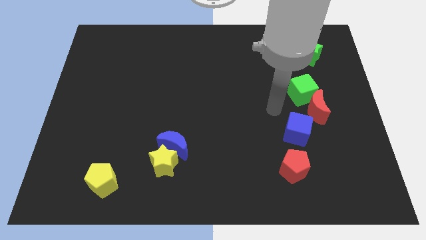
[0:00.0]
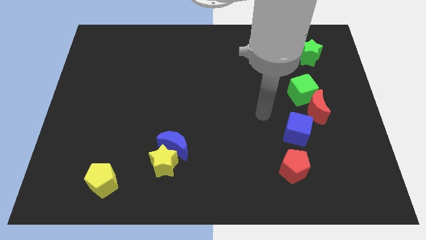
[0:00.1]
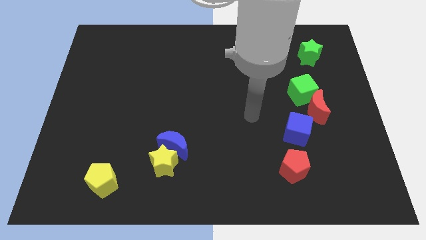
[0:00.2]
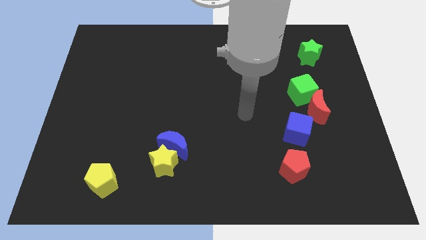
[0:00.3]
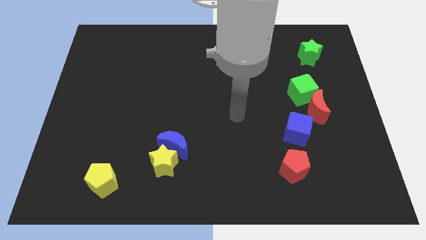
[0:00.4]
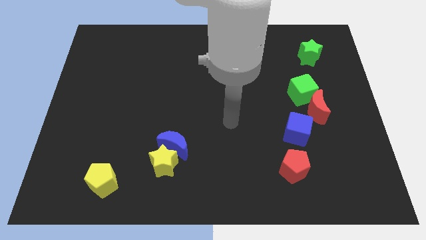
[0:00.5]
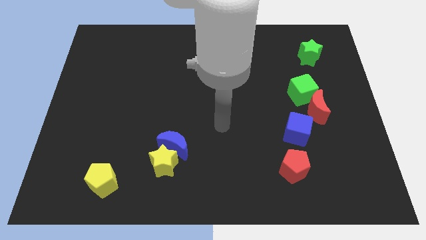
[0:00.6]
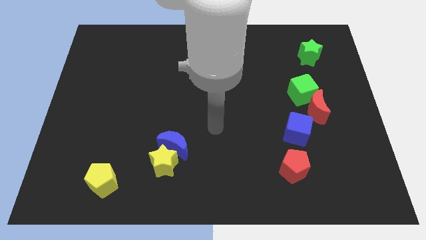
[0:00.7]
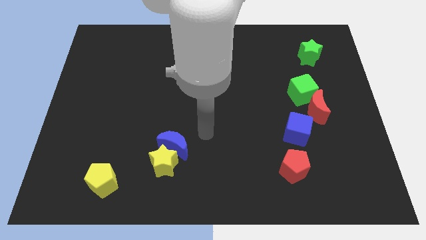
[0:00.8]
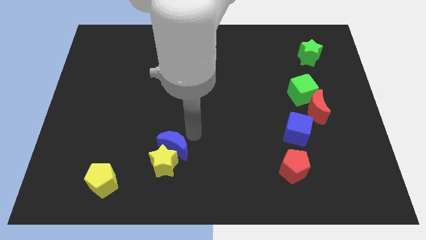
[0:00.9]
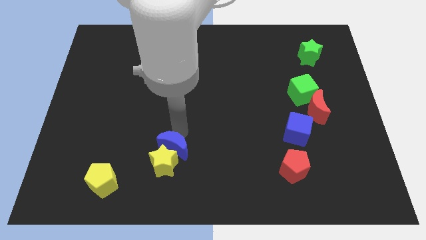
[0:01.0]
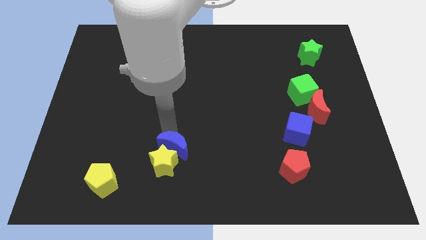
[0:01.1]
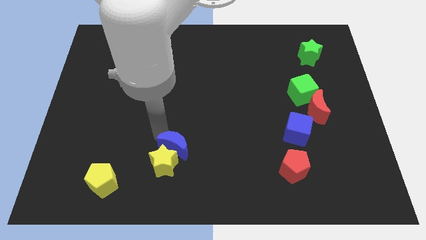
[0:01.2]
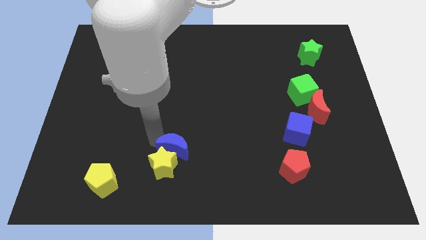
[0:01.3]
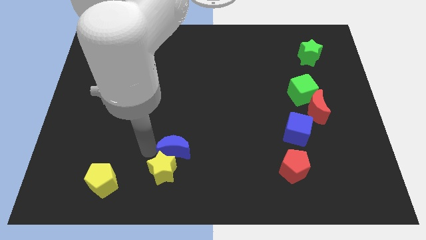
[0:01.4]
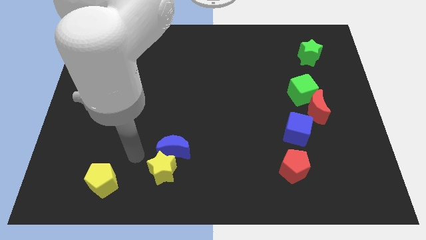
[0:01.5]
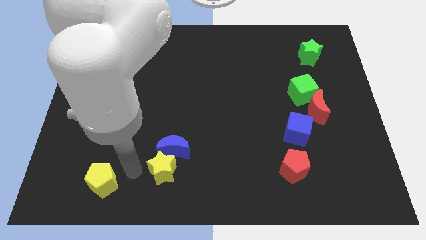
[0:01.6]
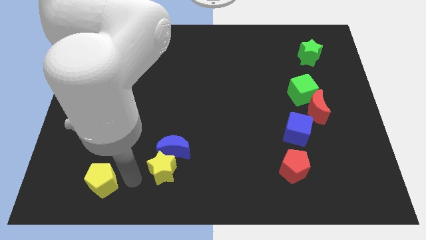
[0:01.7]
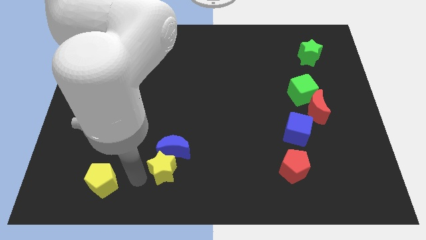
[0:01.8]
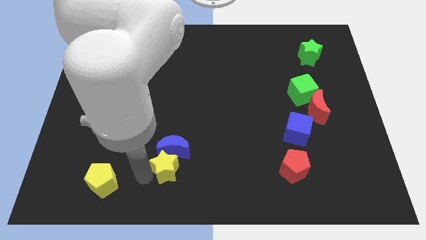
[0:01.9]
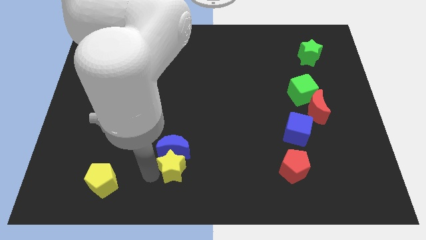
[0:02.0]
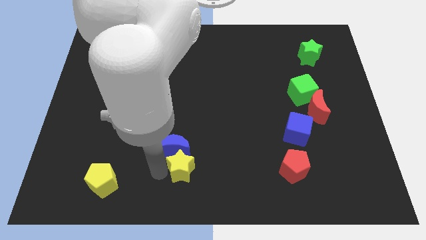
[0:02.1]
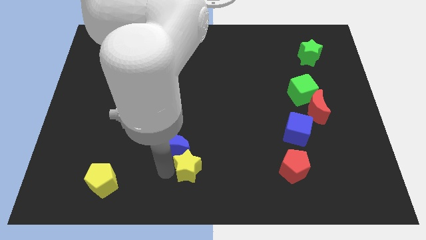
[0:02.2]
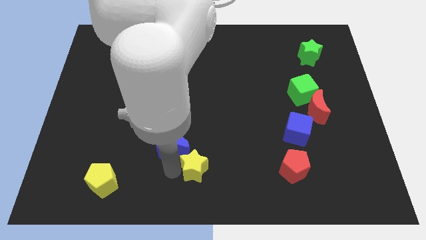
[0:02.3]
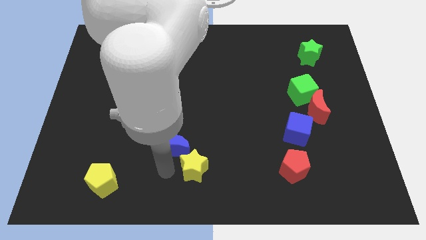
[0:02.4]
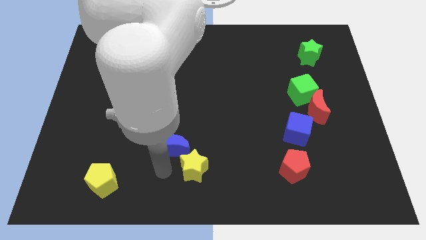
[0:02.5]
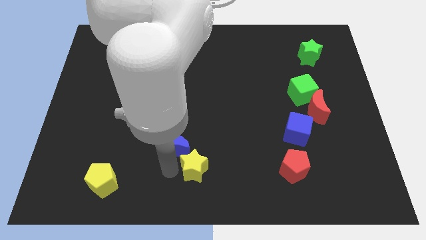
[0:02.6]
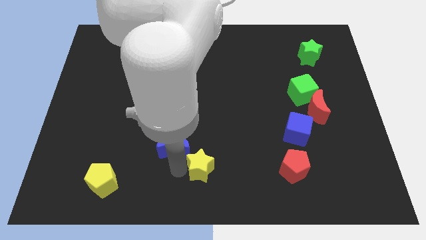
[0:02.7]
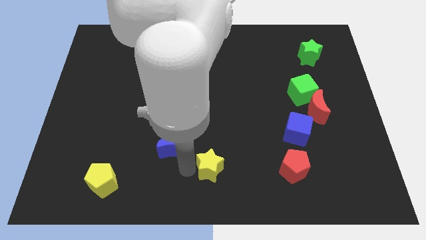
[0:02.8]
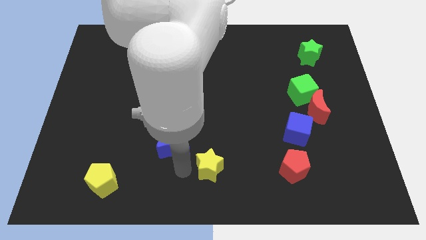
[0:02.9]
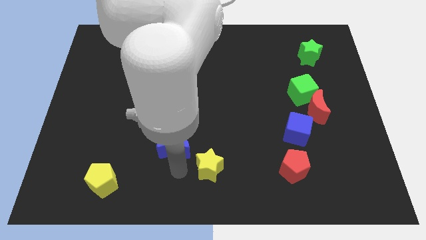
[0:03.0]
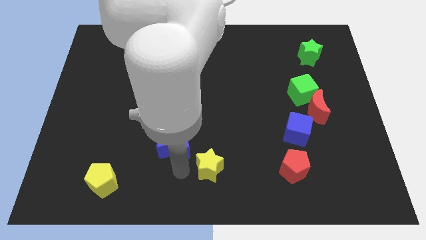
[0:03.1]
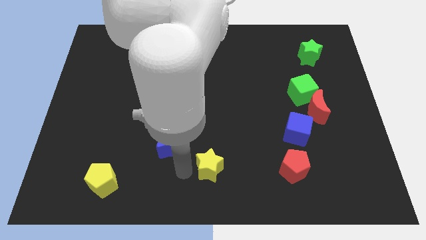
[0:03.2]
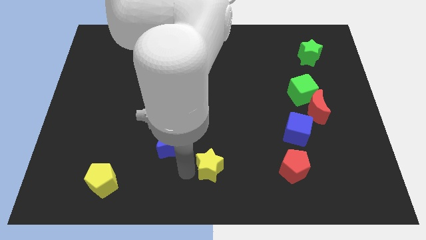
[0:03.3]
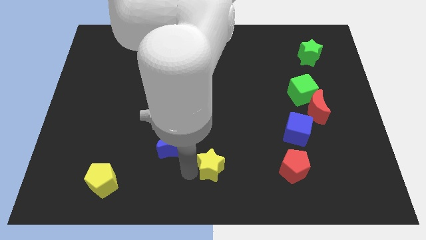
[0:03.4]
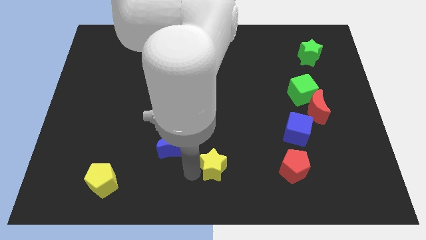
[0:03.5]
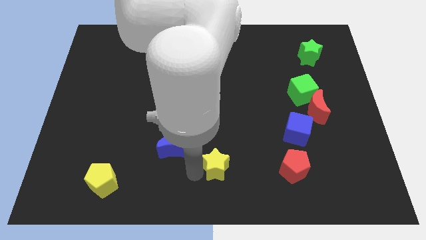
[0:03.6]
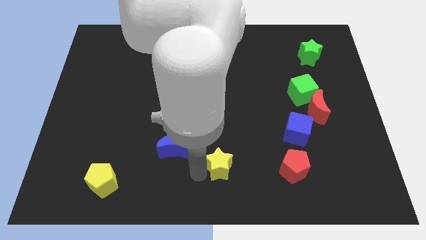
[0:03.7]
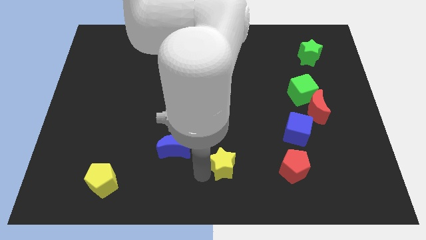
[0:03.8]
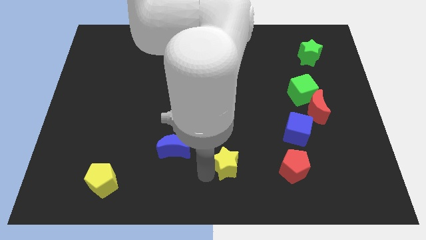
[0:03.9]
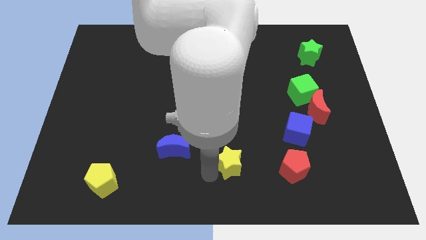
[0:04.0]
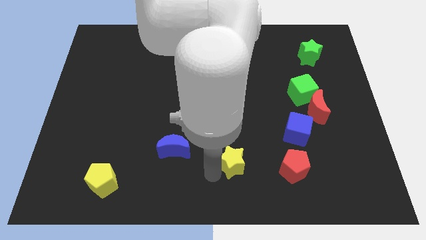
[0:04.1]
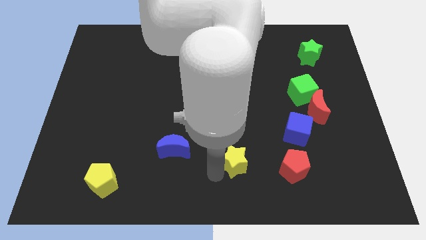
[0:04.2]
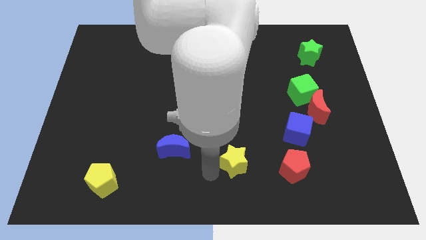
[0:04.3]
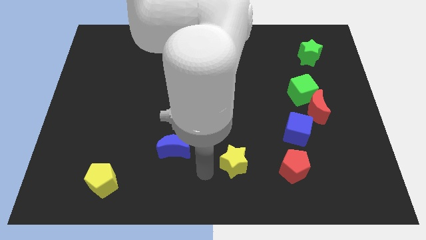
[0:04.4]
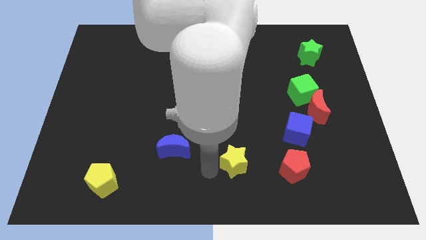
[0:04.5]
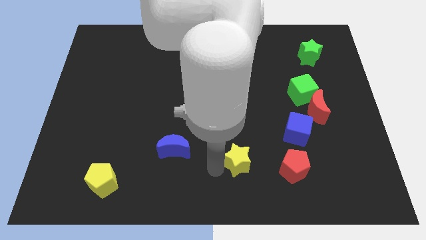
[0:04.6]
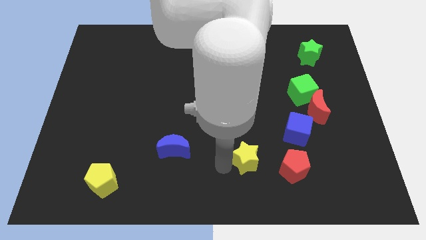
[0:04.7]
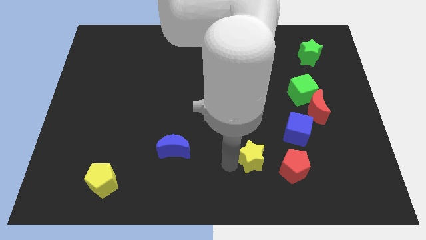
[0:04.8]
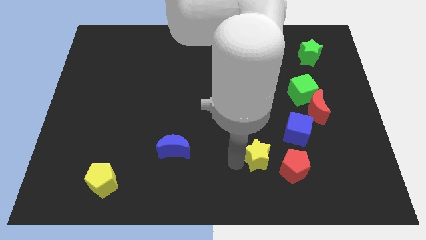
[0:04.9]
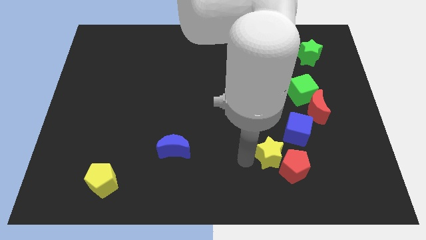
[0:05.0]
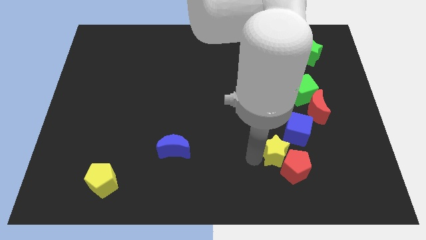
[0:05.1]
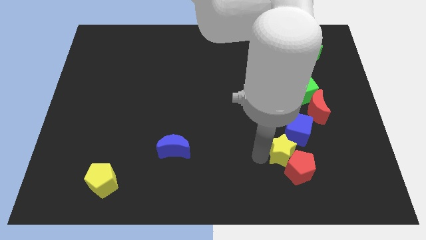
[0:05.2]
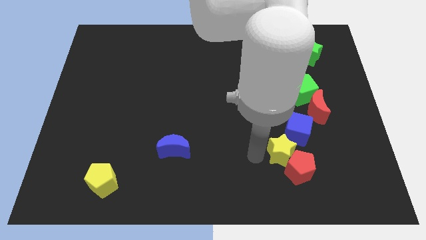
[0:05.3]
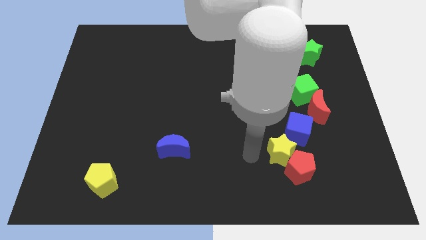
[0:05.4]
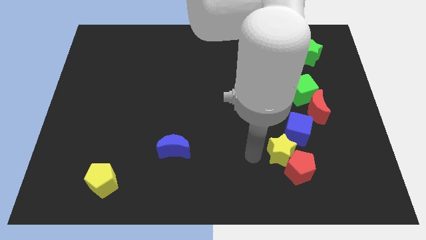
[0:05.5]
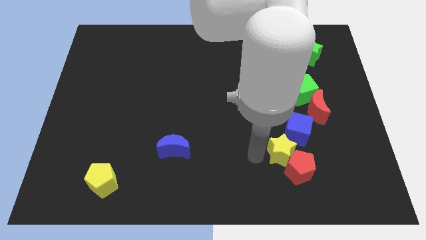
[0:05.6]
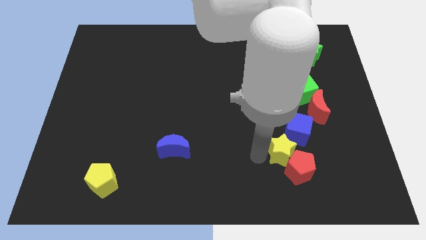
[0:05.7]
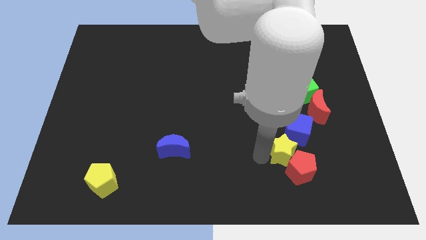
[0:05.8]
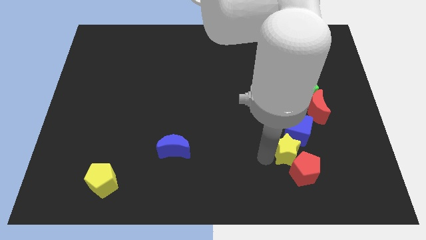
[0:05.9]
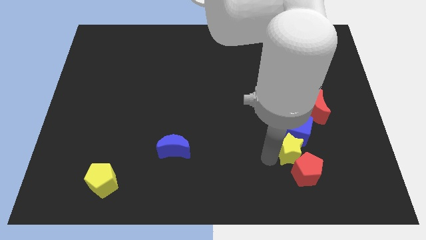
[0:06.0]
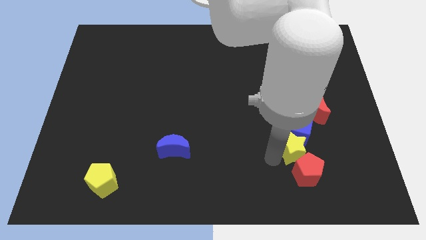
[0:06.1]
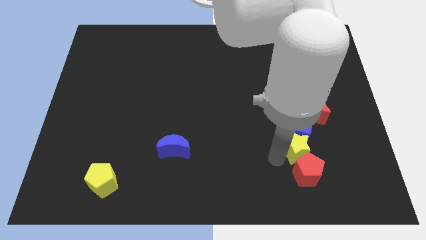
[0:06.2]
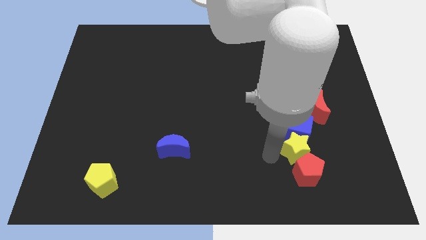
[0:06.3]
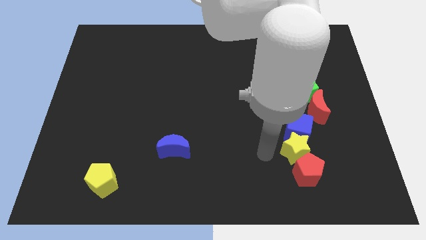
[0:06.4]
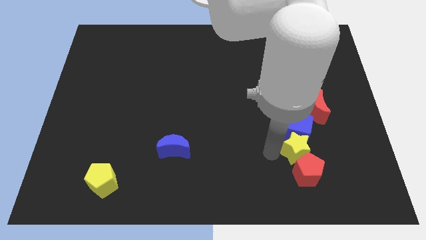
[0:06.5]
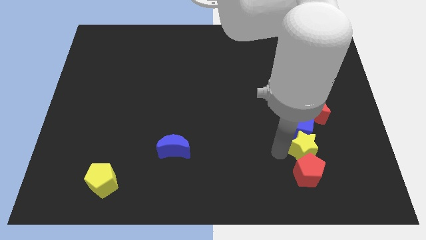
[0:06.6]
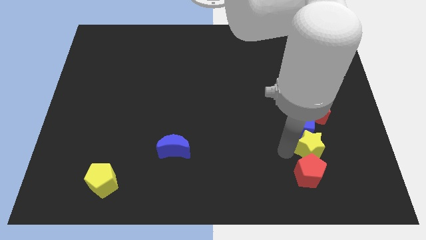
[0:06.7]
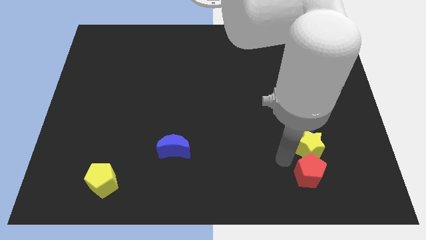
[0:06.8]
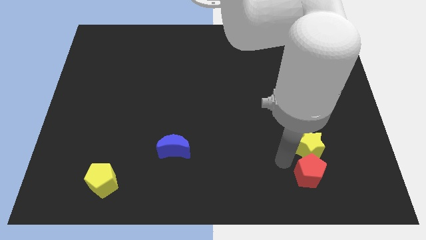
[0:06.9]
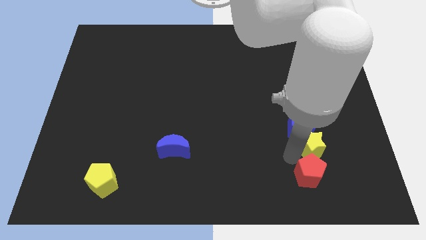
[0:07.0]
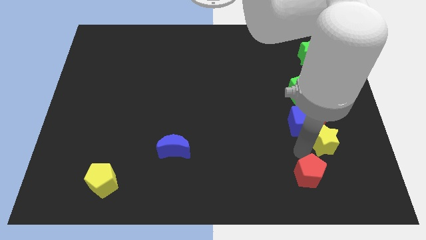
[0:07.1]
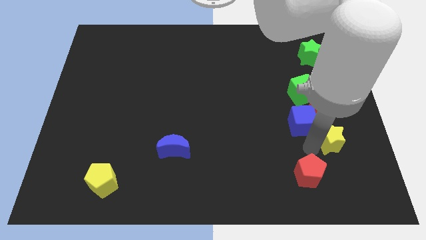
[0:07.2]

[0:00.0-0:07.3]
move the yellow star right of the blue cube
